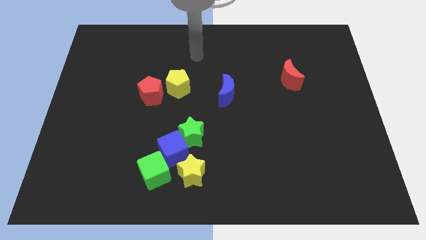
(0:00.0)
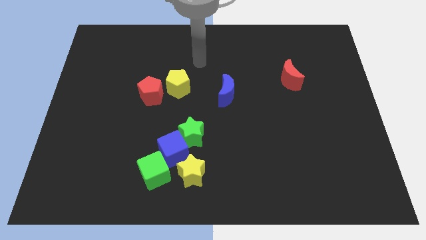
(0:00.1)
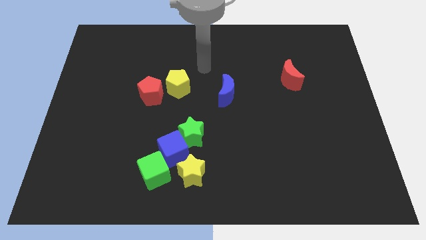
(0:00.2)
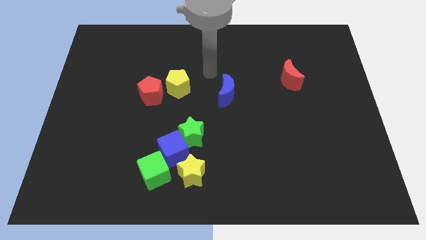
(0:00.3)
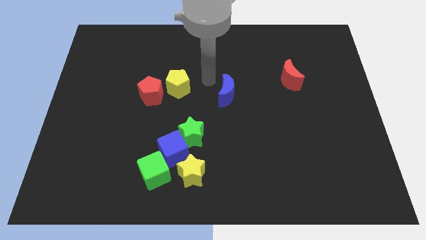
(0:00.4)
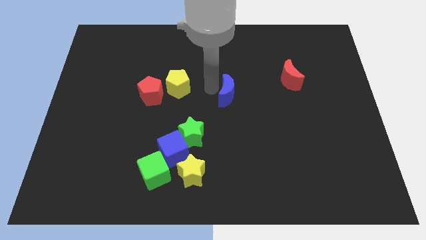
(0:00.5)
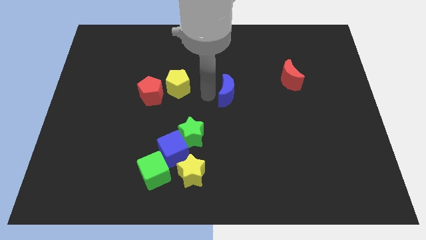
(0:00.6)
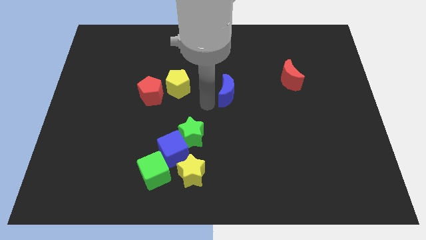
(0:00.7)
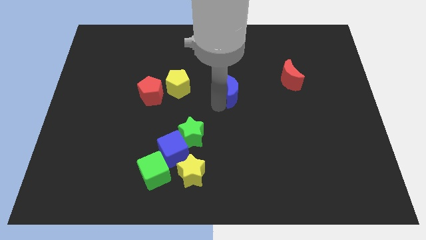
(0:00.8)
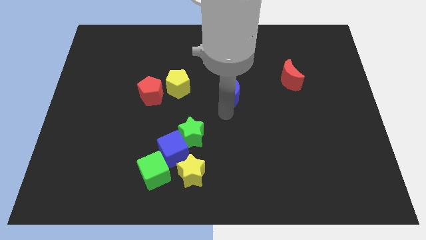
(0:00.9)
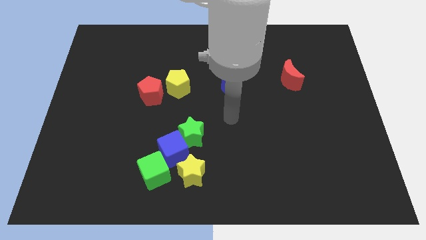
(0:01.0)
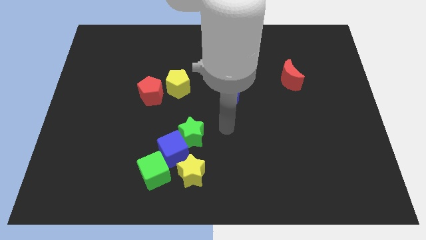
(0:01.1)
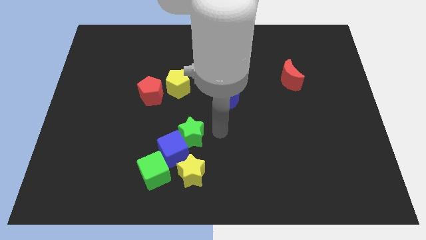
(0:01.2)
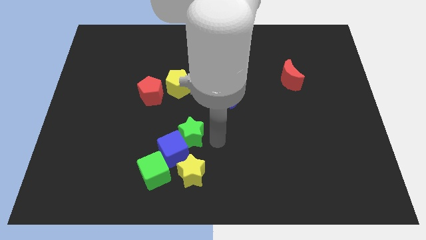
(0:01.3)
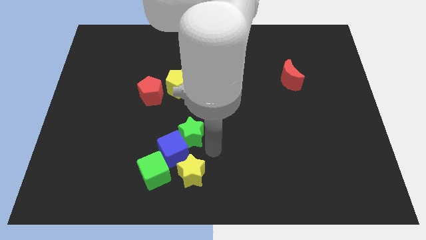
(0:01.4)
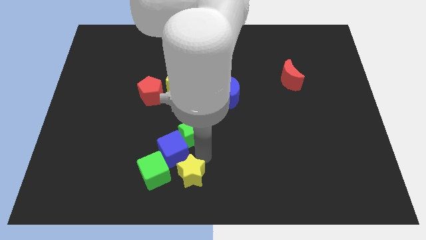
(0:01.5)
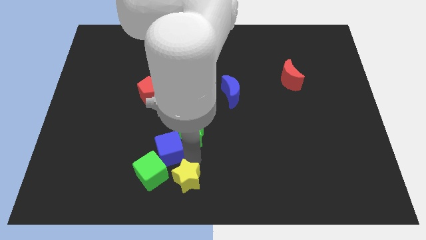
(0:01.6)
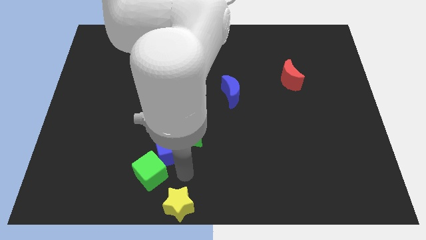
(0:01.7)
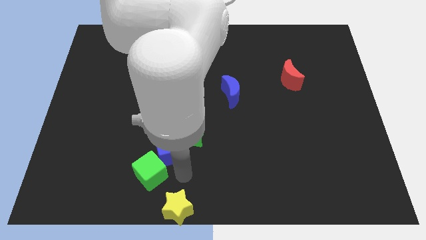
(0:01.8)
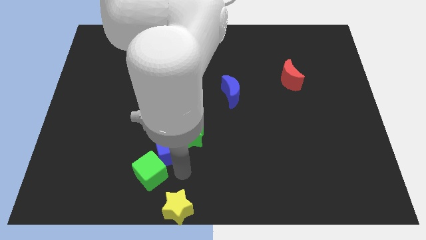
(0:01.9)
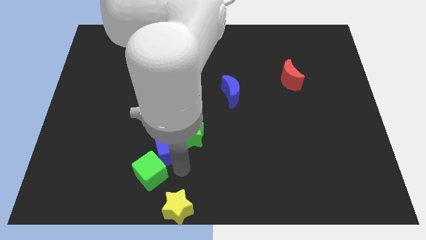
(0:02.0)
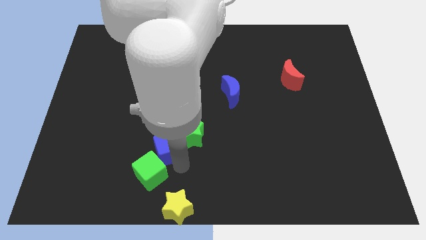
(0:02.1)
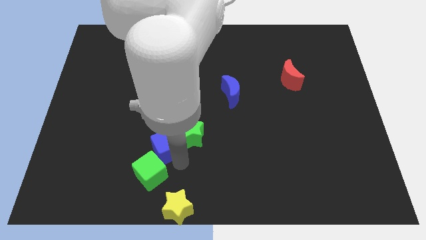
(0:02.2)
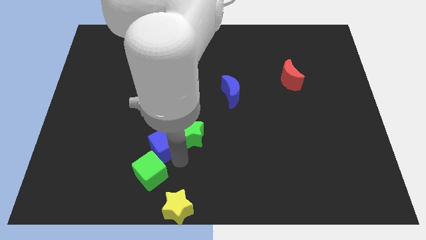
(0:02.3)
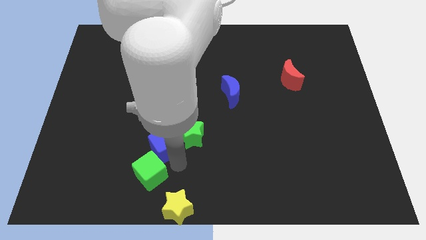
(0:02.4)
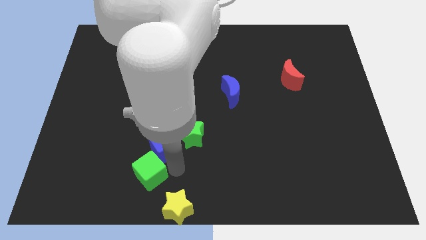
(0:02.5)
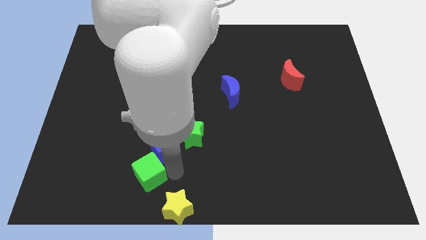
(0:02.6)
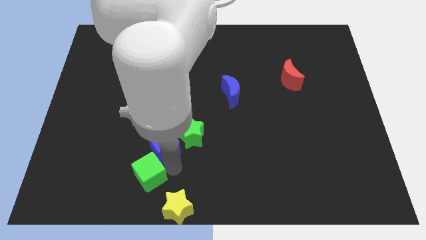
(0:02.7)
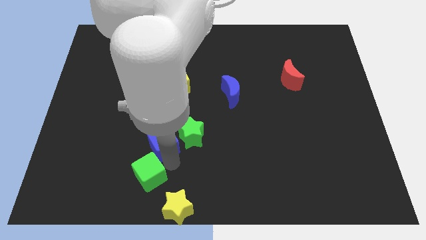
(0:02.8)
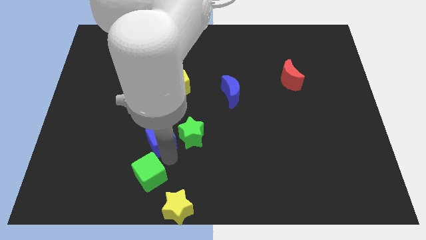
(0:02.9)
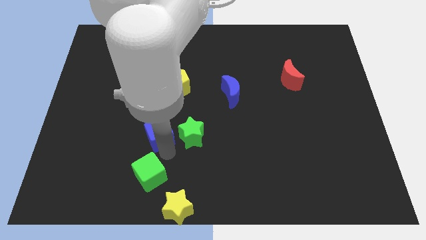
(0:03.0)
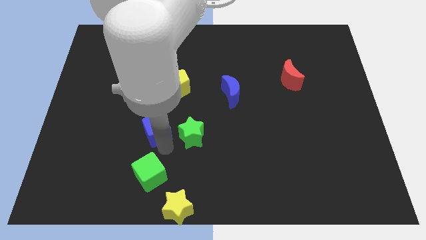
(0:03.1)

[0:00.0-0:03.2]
separate the blue cube from the green star, green cube, and yellow star

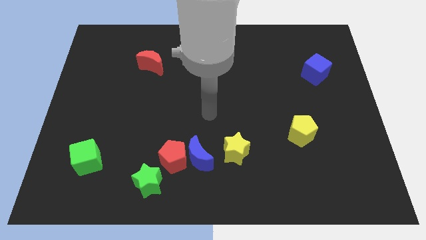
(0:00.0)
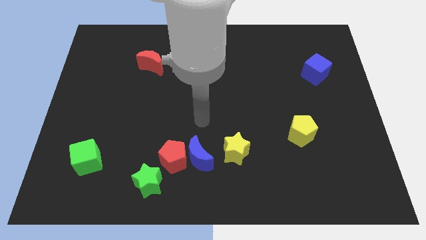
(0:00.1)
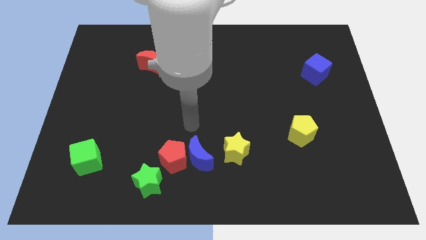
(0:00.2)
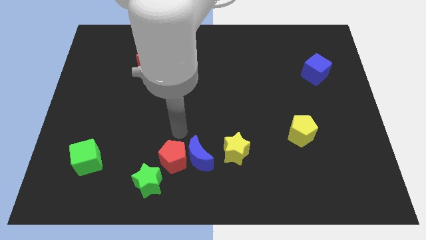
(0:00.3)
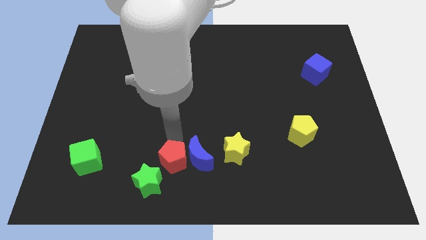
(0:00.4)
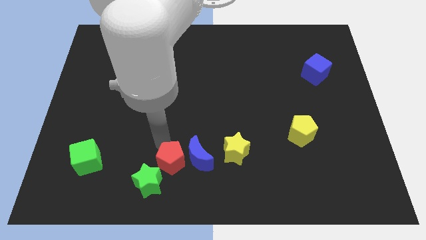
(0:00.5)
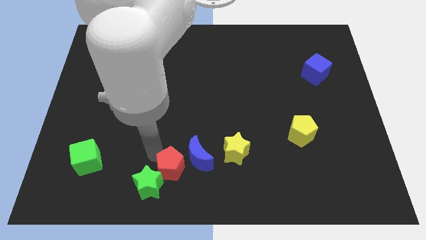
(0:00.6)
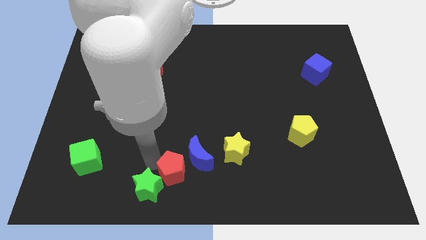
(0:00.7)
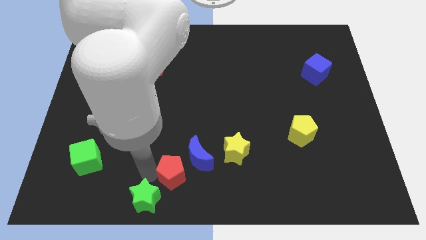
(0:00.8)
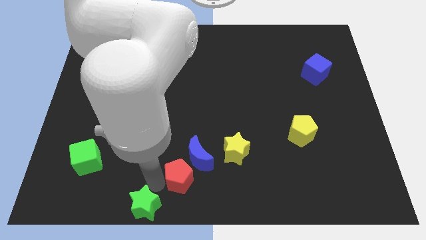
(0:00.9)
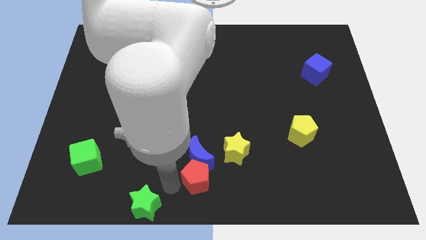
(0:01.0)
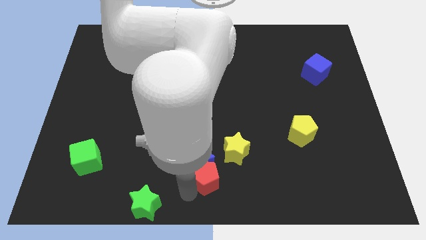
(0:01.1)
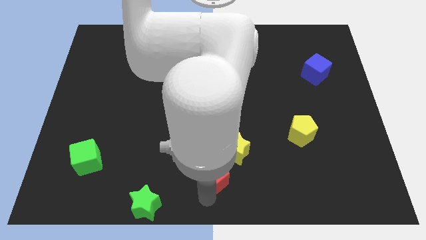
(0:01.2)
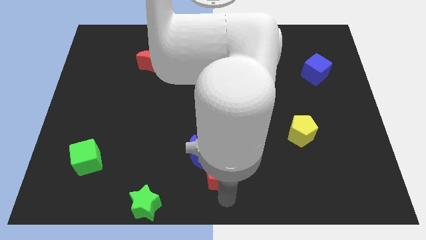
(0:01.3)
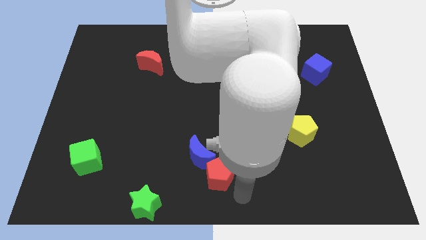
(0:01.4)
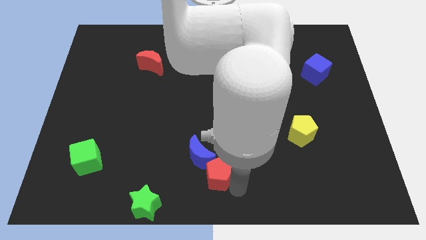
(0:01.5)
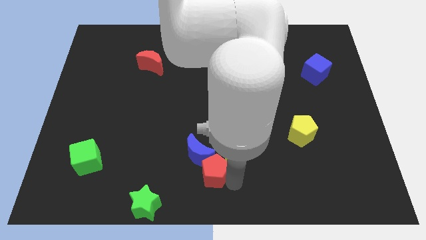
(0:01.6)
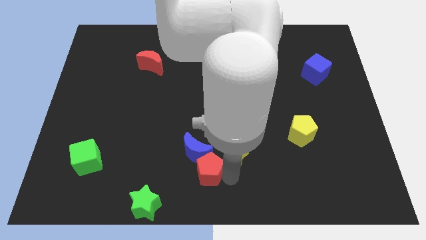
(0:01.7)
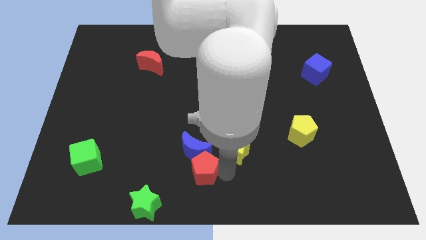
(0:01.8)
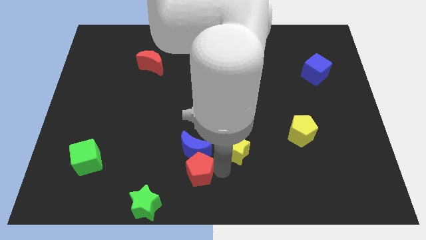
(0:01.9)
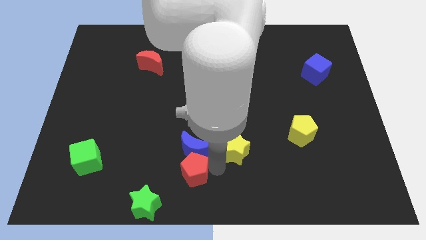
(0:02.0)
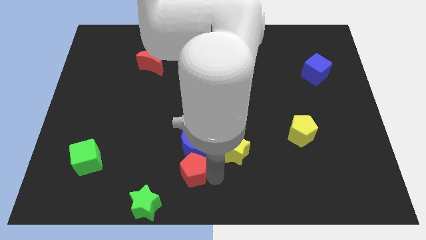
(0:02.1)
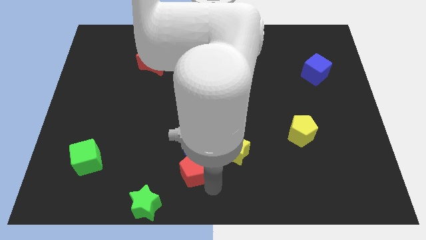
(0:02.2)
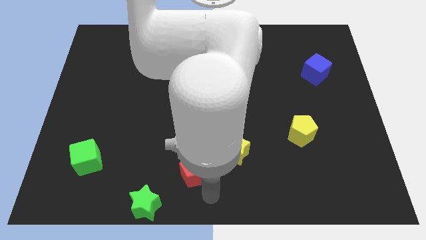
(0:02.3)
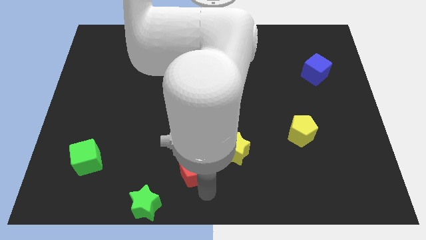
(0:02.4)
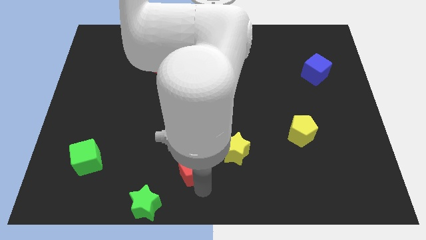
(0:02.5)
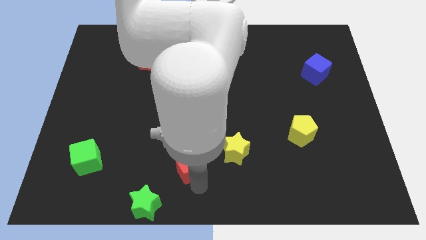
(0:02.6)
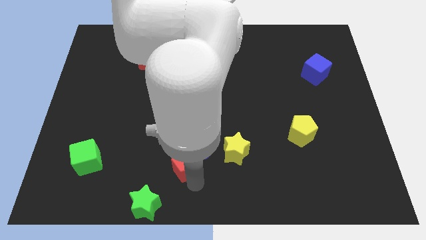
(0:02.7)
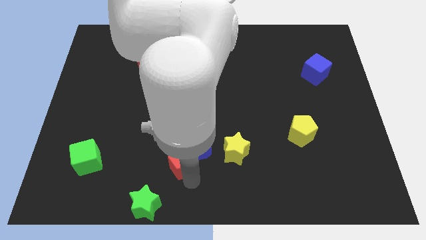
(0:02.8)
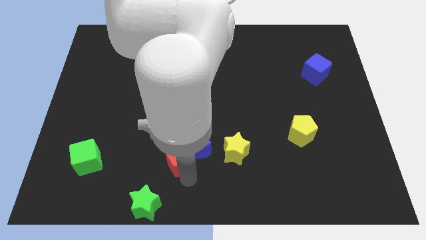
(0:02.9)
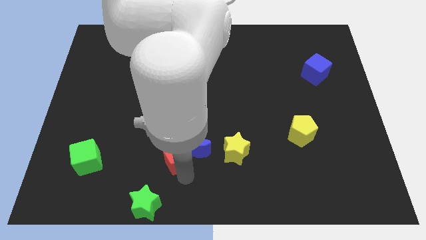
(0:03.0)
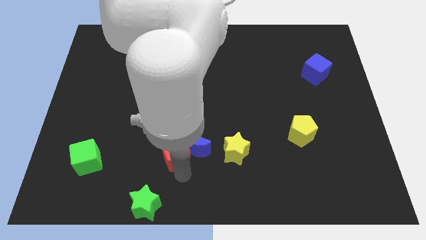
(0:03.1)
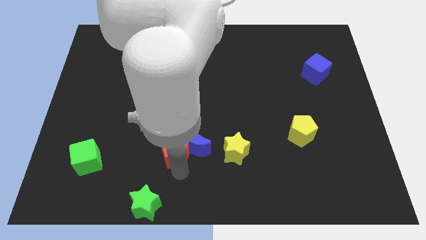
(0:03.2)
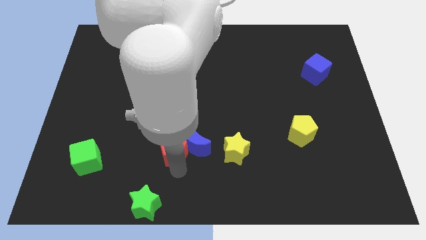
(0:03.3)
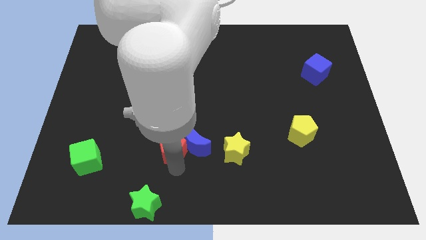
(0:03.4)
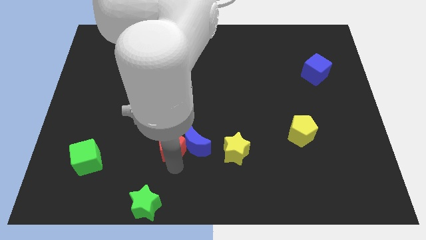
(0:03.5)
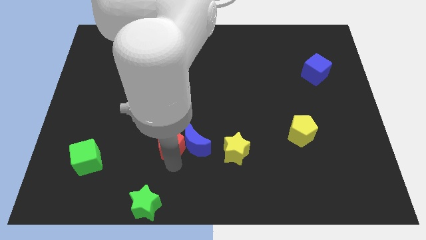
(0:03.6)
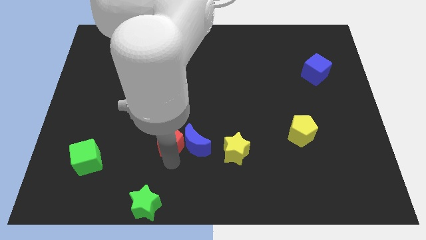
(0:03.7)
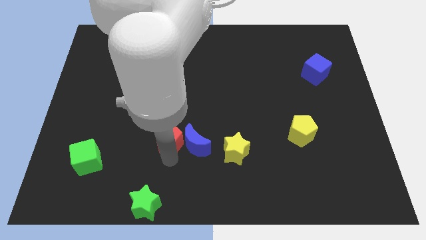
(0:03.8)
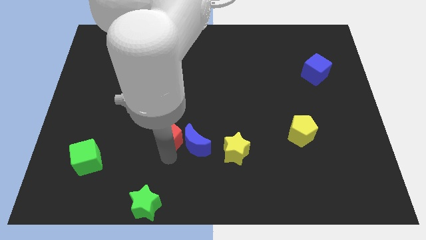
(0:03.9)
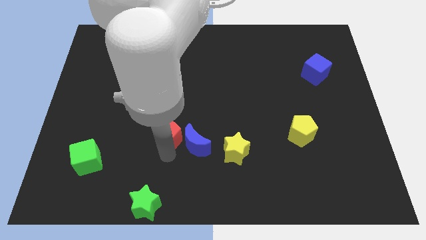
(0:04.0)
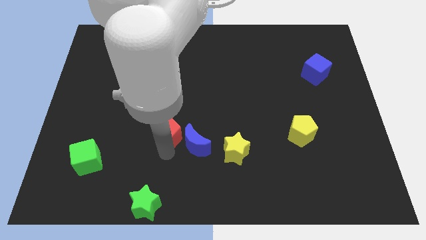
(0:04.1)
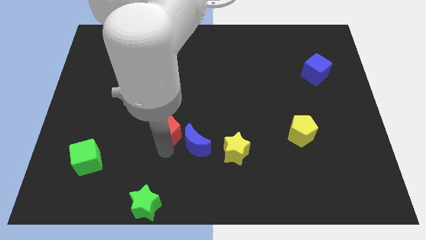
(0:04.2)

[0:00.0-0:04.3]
move the red pentagon away from the blue moon and green star

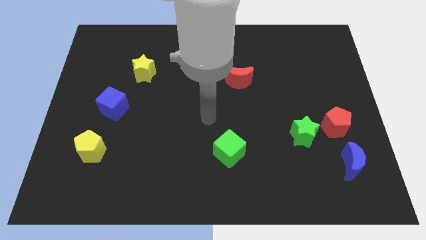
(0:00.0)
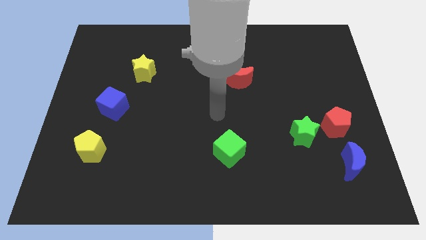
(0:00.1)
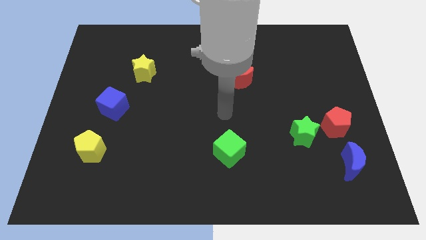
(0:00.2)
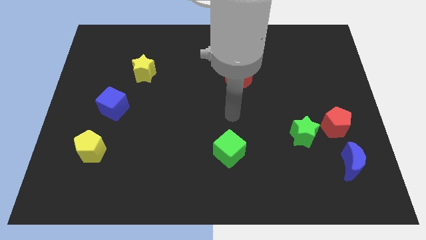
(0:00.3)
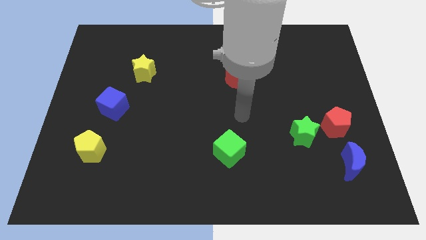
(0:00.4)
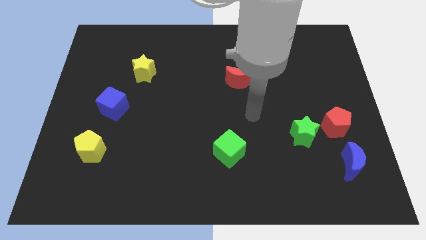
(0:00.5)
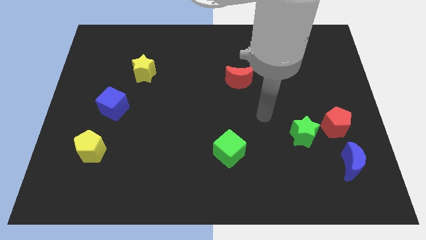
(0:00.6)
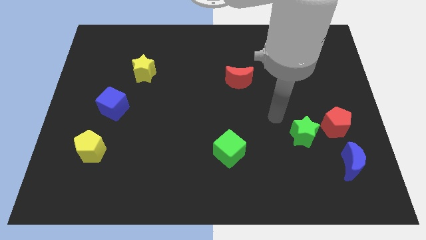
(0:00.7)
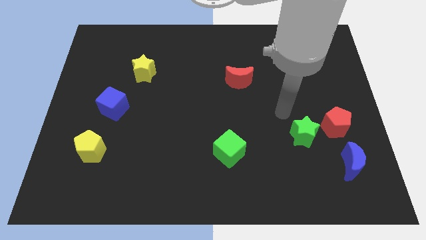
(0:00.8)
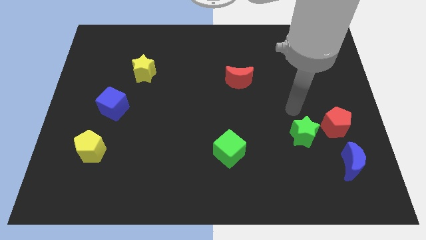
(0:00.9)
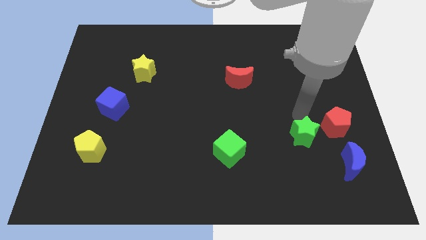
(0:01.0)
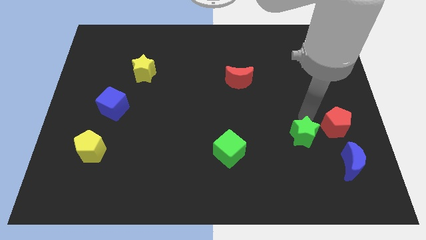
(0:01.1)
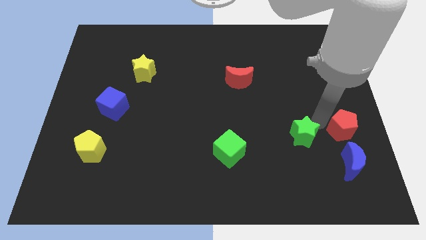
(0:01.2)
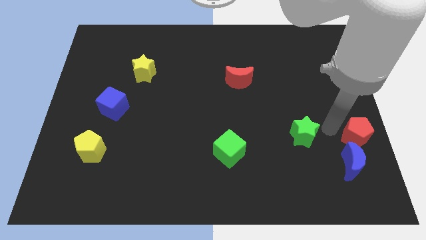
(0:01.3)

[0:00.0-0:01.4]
separate the green star from the red pentagon

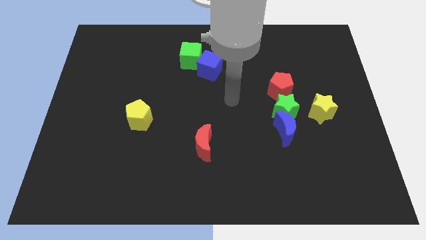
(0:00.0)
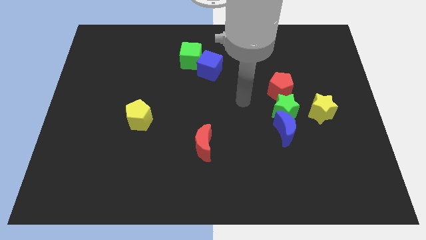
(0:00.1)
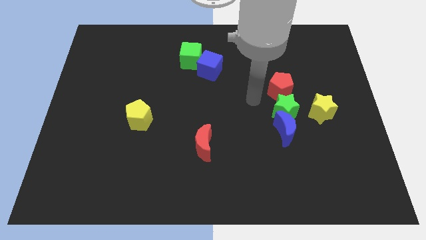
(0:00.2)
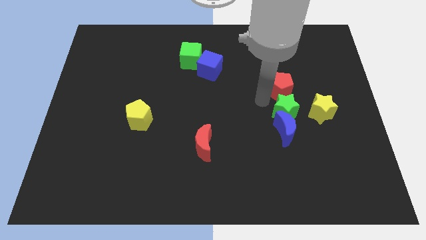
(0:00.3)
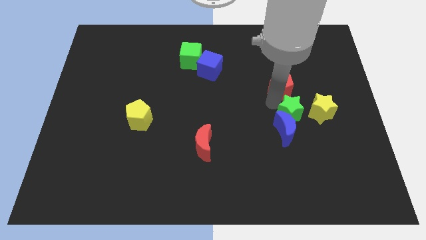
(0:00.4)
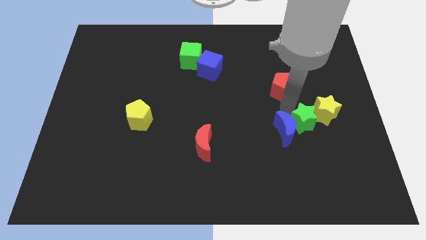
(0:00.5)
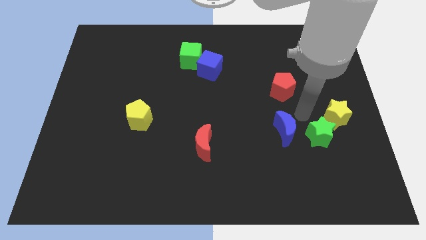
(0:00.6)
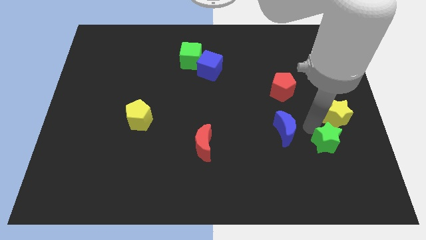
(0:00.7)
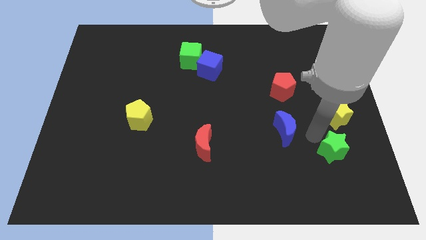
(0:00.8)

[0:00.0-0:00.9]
pull the blue moon apart from the green star
